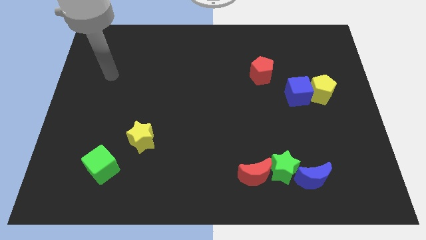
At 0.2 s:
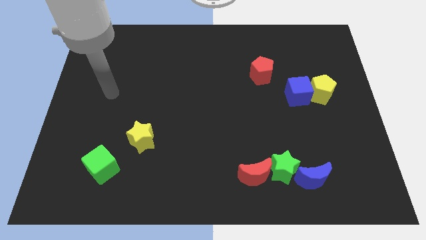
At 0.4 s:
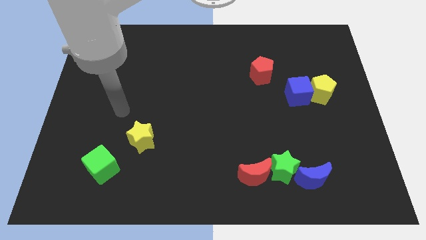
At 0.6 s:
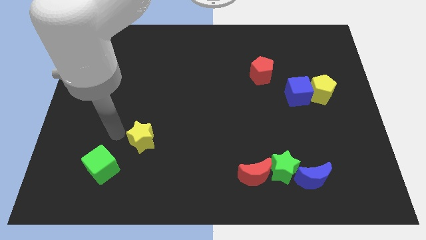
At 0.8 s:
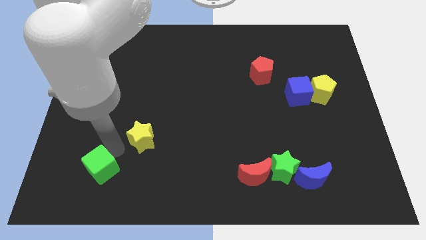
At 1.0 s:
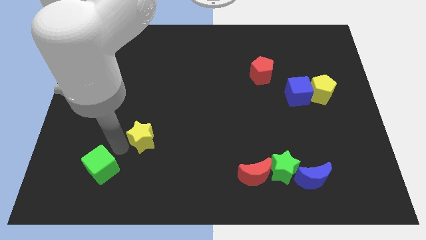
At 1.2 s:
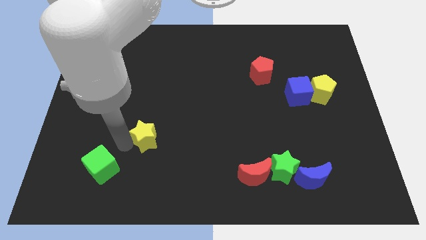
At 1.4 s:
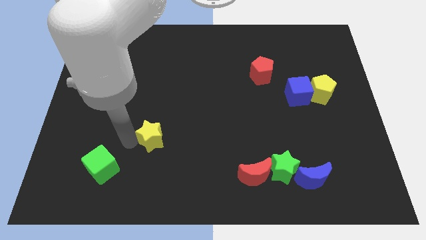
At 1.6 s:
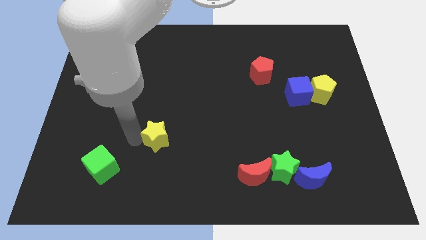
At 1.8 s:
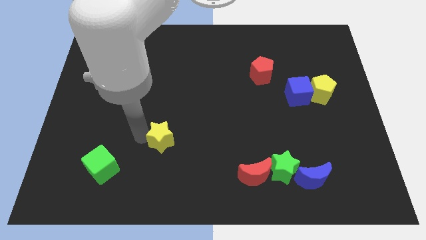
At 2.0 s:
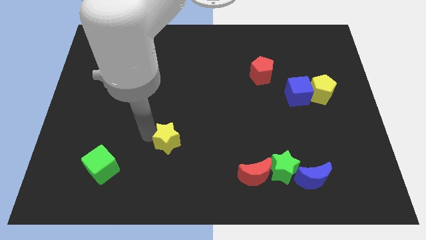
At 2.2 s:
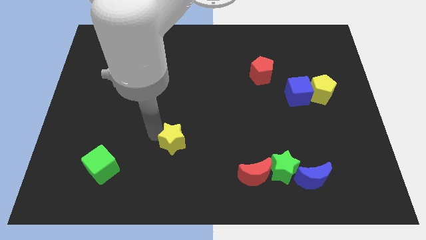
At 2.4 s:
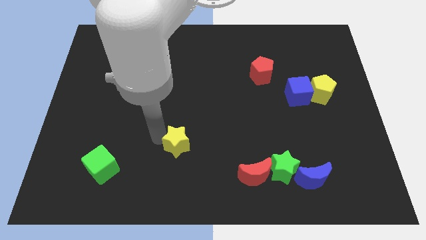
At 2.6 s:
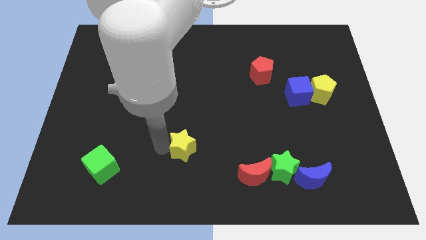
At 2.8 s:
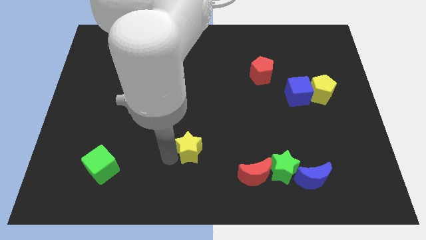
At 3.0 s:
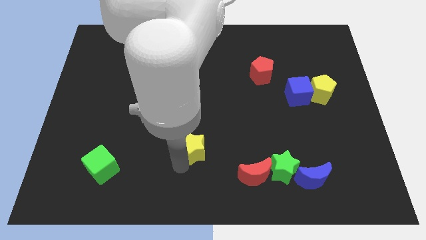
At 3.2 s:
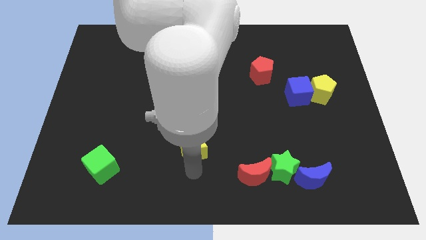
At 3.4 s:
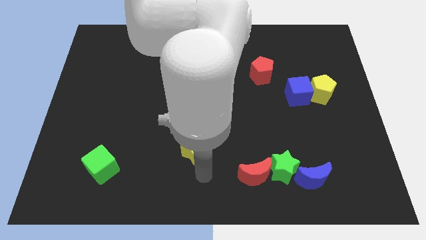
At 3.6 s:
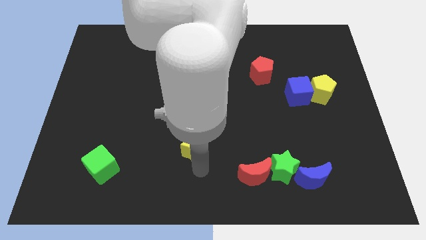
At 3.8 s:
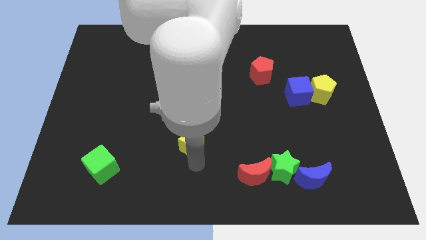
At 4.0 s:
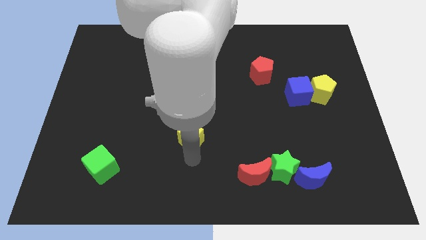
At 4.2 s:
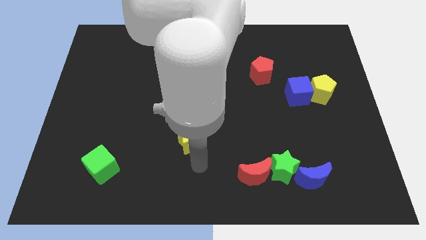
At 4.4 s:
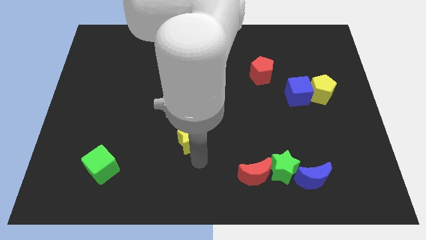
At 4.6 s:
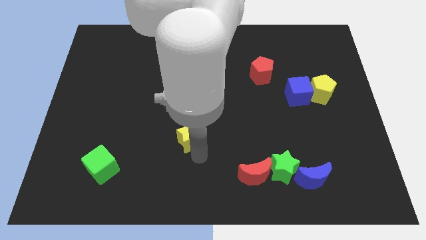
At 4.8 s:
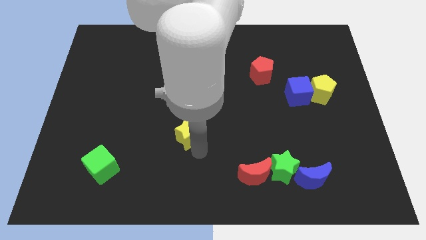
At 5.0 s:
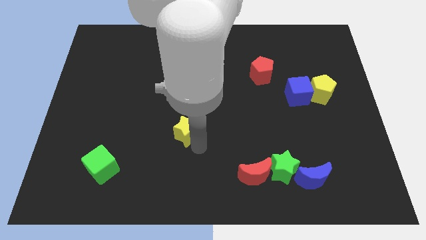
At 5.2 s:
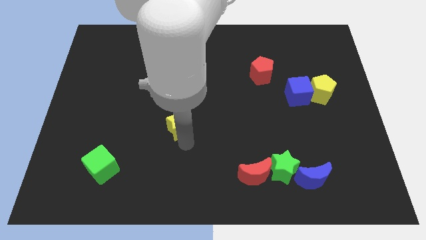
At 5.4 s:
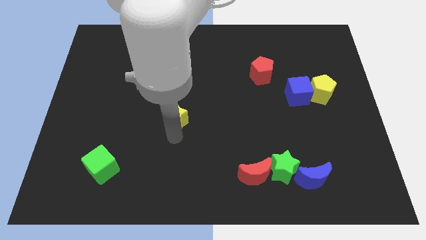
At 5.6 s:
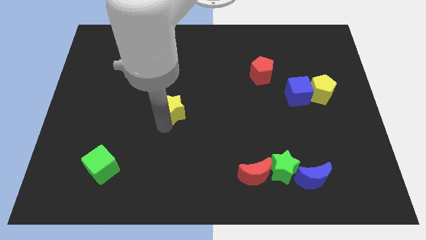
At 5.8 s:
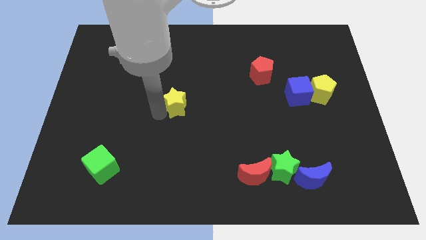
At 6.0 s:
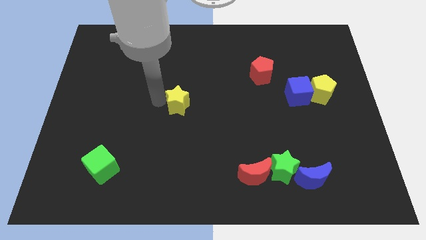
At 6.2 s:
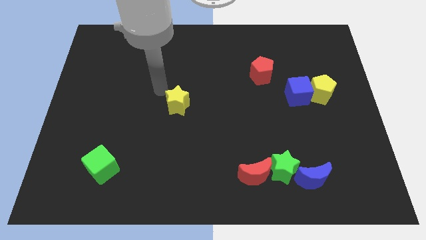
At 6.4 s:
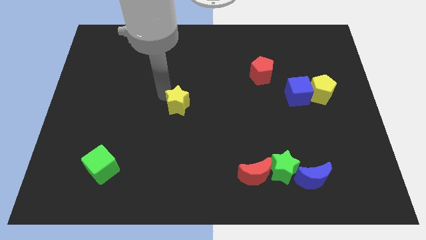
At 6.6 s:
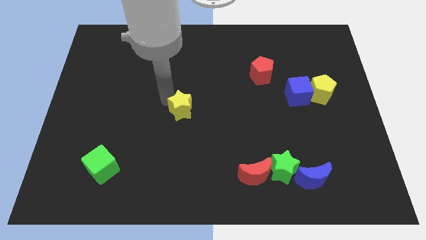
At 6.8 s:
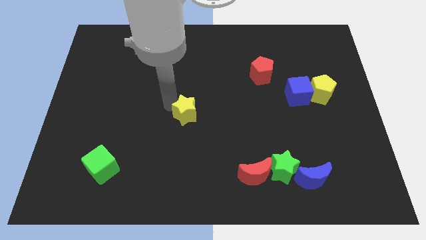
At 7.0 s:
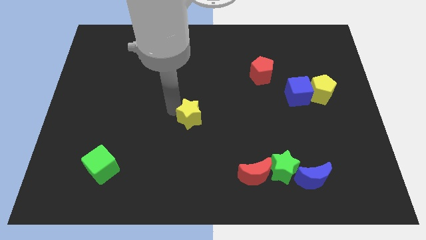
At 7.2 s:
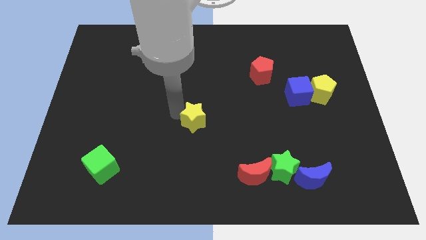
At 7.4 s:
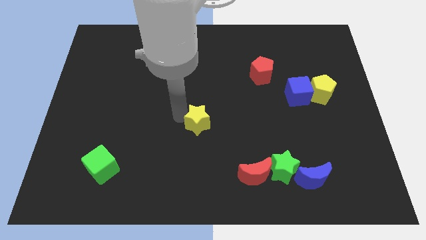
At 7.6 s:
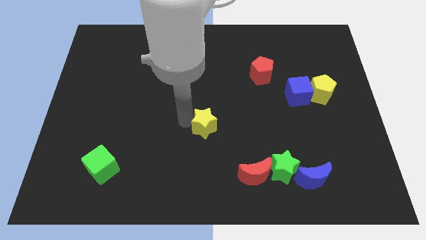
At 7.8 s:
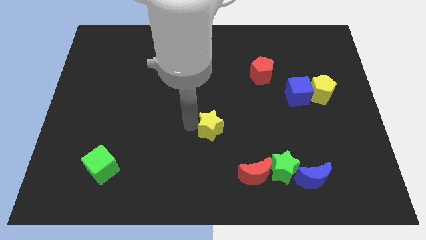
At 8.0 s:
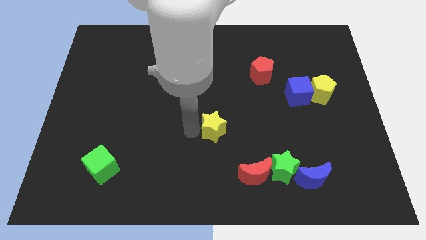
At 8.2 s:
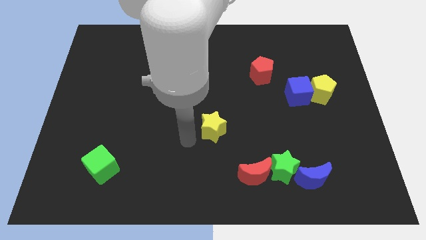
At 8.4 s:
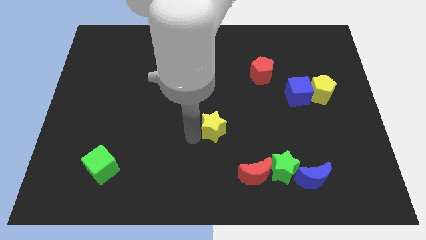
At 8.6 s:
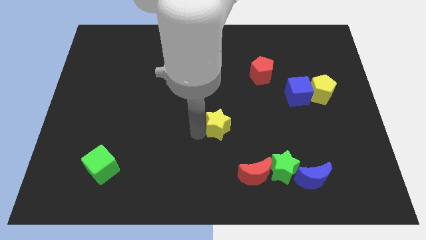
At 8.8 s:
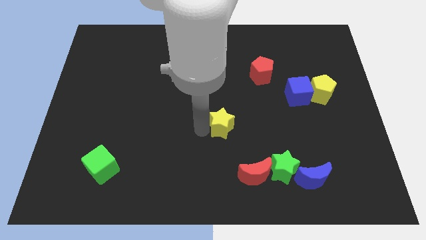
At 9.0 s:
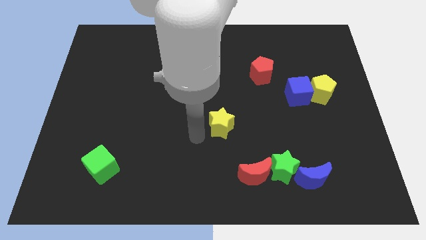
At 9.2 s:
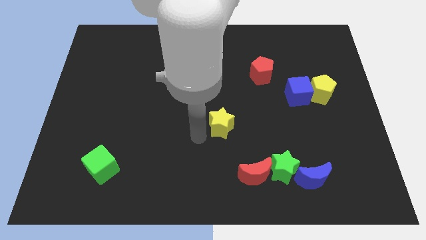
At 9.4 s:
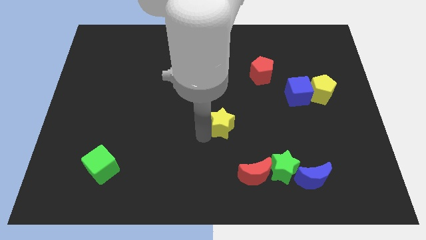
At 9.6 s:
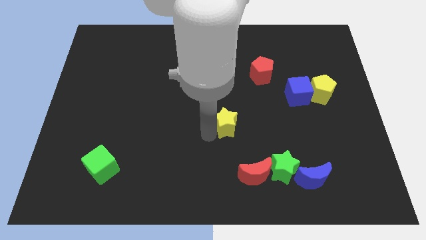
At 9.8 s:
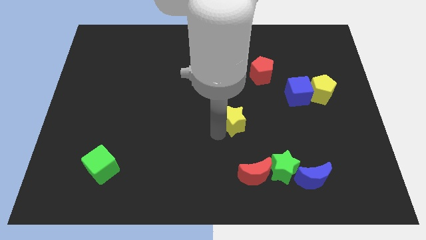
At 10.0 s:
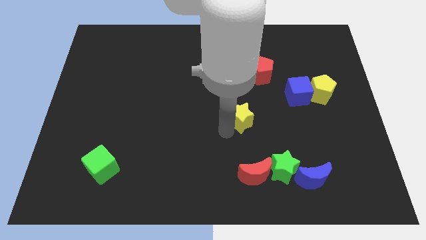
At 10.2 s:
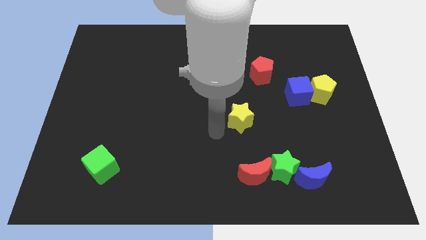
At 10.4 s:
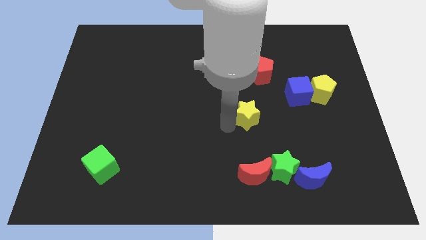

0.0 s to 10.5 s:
put the yellow star to the bottom of the red pentagon

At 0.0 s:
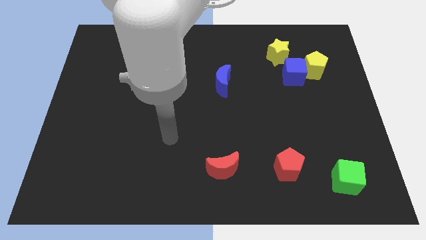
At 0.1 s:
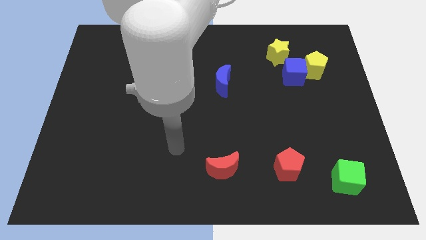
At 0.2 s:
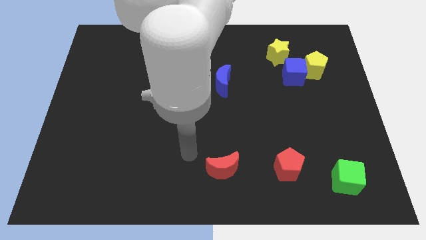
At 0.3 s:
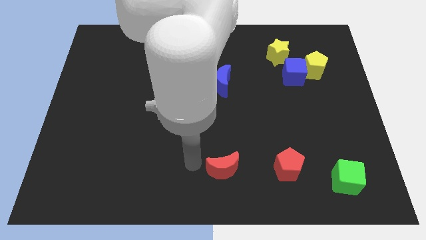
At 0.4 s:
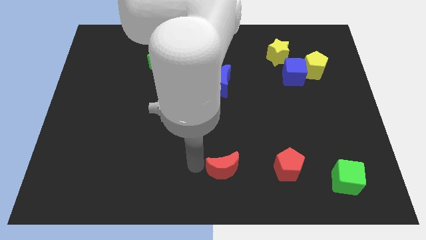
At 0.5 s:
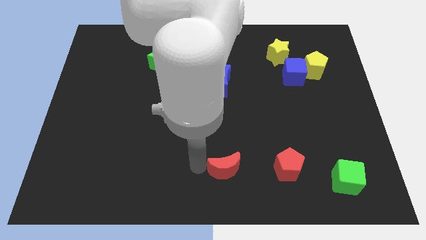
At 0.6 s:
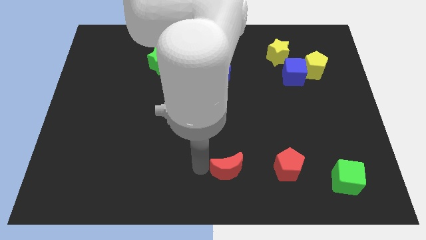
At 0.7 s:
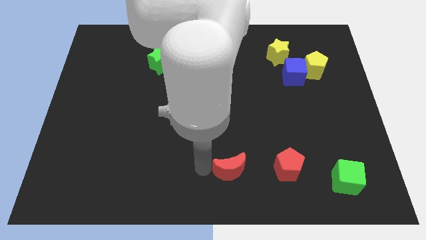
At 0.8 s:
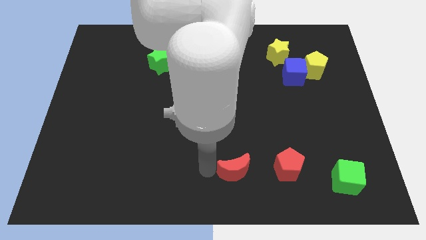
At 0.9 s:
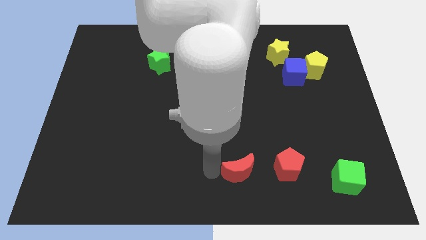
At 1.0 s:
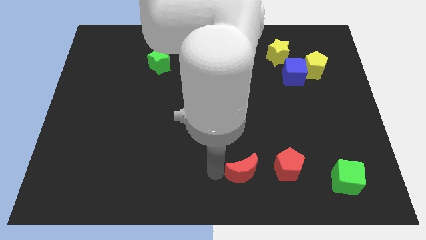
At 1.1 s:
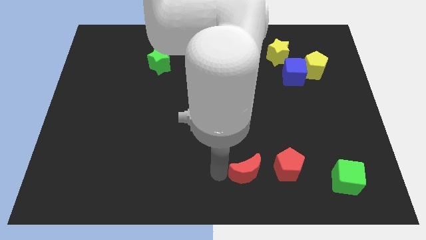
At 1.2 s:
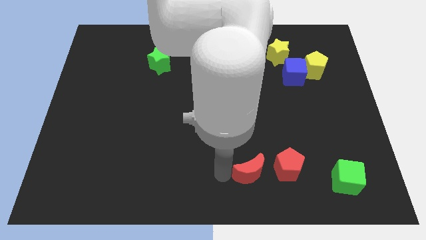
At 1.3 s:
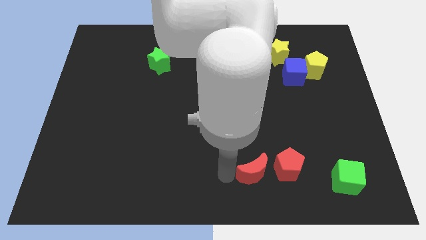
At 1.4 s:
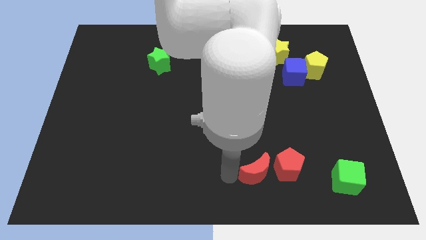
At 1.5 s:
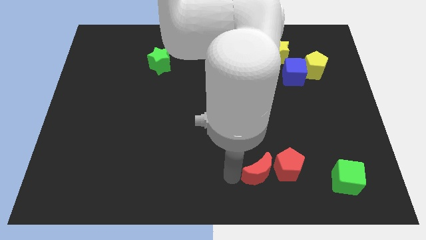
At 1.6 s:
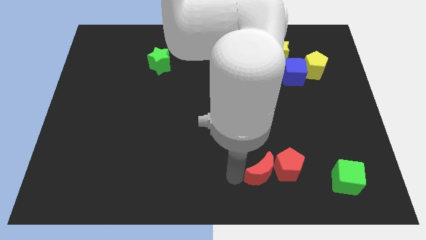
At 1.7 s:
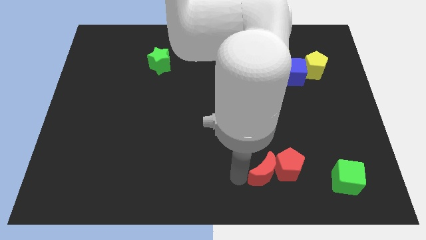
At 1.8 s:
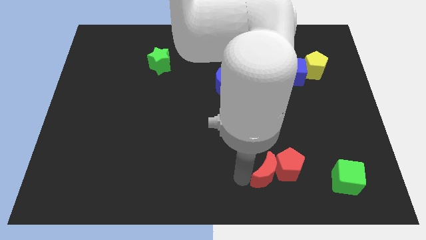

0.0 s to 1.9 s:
put the red moon just left of the green cube

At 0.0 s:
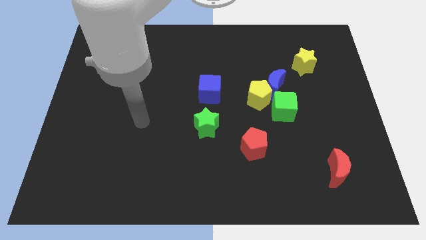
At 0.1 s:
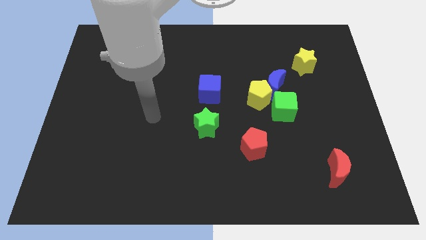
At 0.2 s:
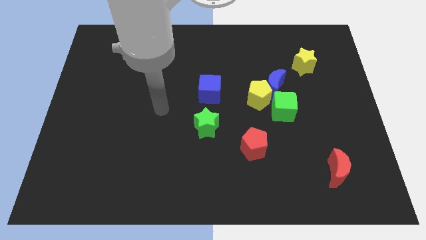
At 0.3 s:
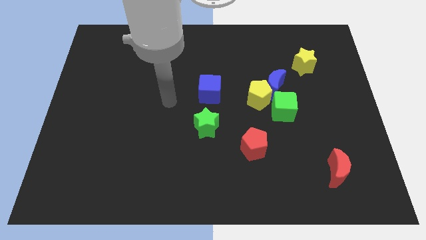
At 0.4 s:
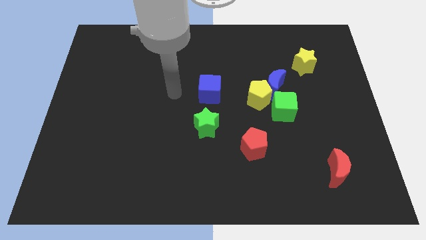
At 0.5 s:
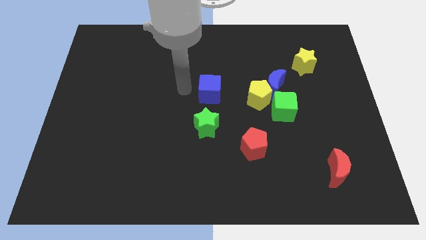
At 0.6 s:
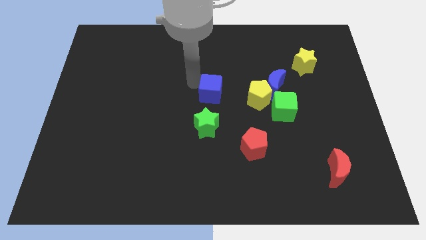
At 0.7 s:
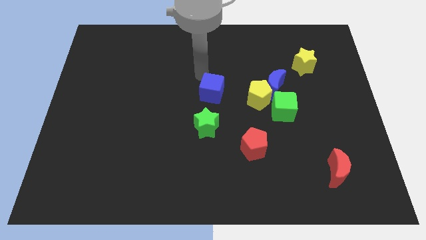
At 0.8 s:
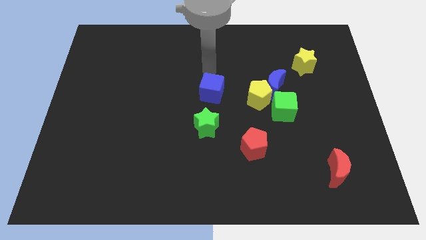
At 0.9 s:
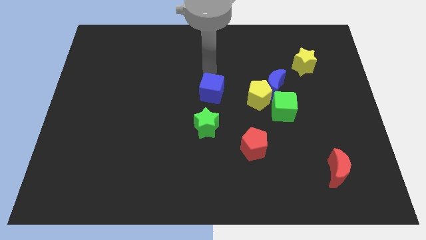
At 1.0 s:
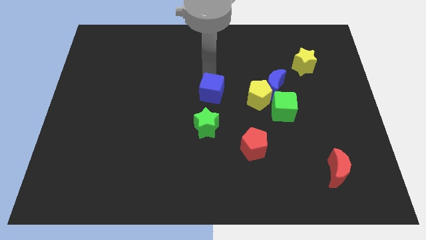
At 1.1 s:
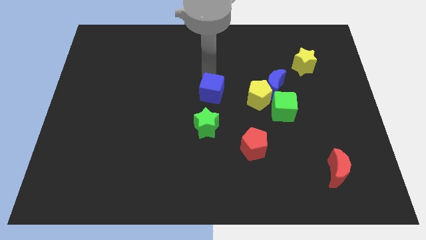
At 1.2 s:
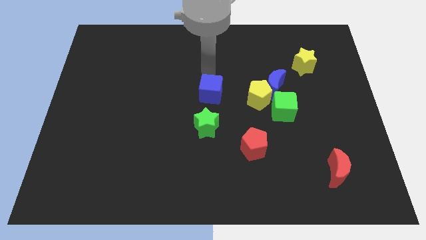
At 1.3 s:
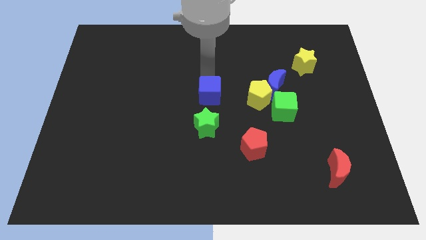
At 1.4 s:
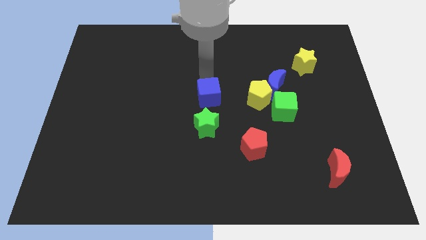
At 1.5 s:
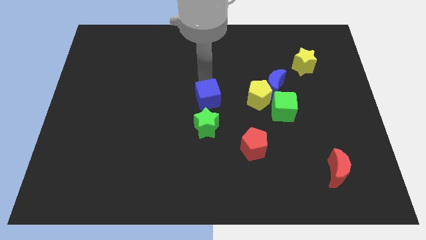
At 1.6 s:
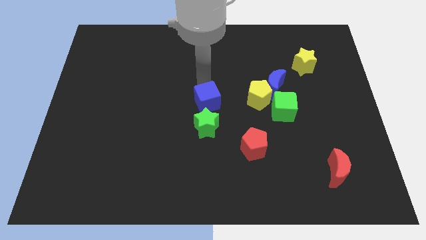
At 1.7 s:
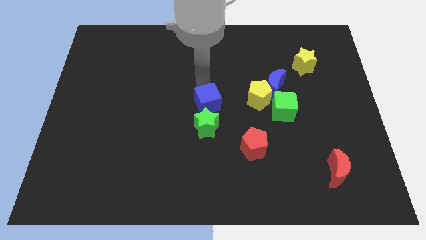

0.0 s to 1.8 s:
put the blue cube diagonally up and to the right of the green star
